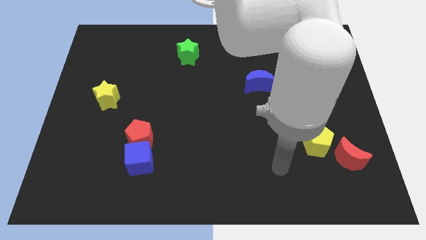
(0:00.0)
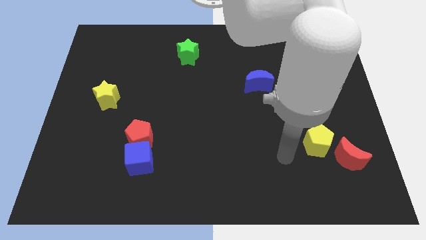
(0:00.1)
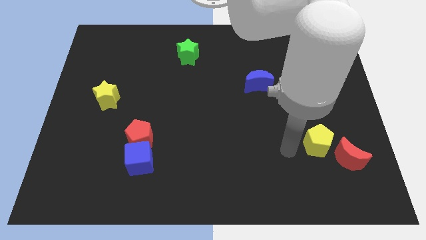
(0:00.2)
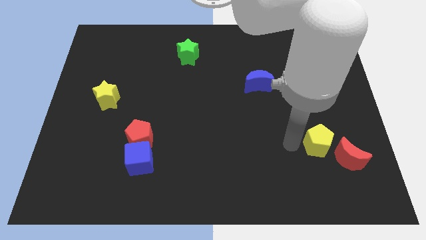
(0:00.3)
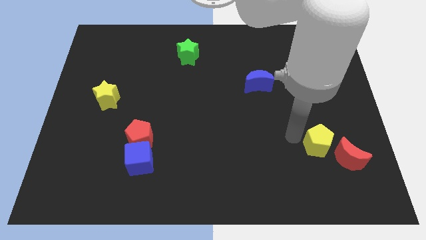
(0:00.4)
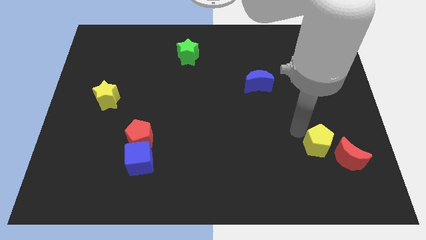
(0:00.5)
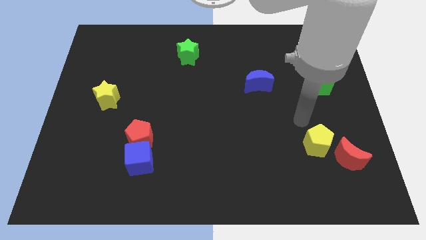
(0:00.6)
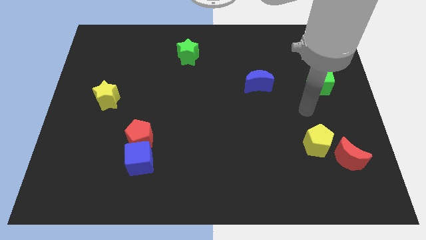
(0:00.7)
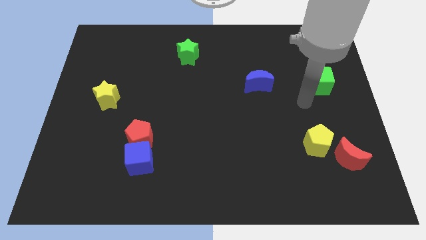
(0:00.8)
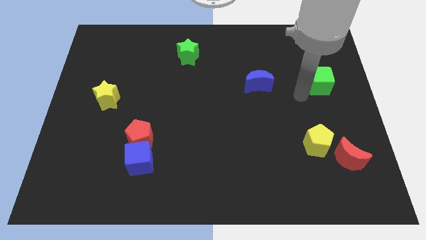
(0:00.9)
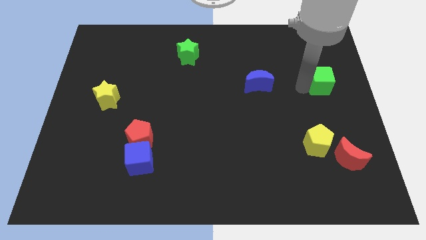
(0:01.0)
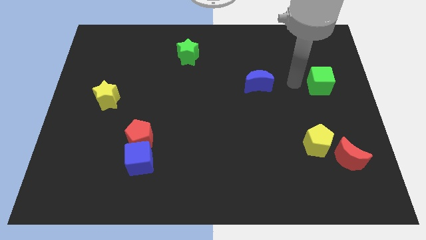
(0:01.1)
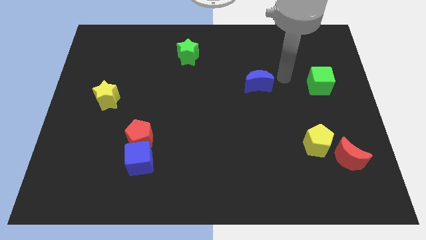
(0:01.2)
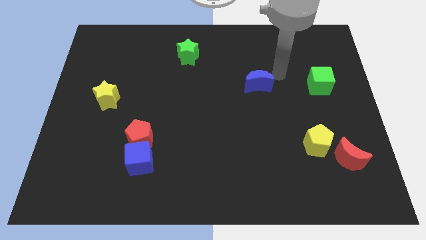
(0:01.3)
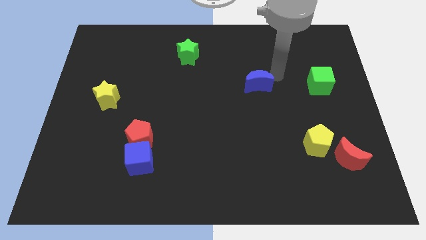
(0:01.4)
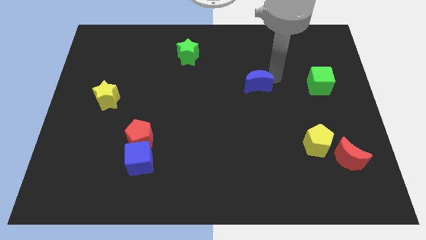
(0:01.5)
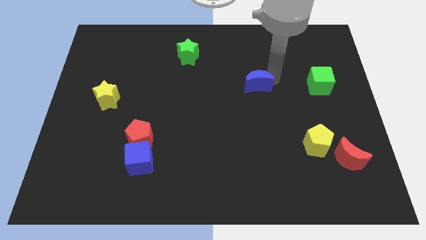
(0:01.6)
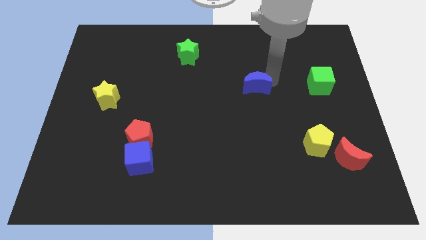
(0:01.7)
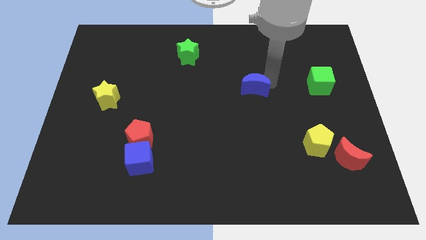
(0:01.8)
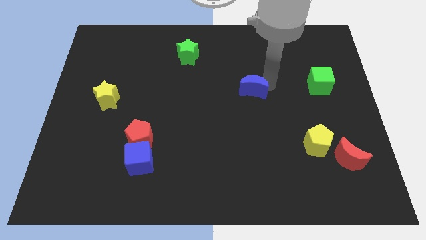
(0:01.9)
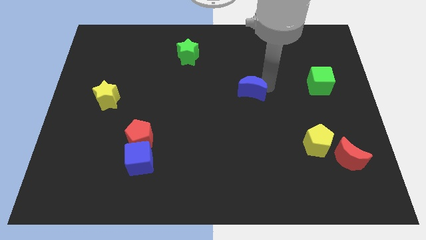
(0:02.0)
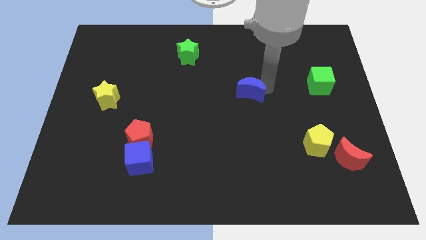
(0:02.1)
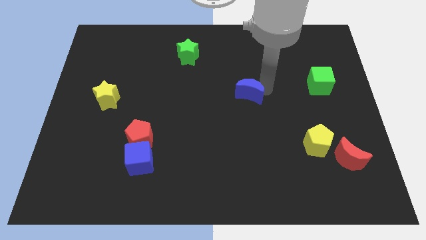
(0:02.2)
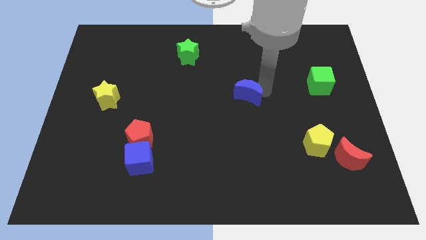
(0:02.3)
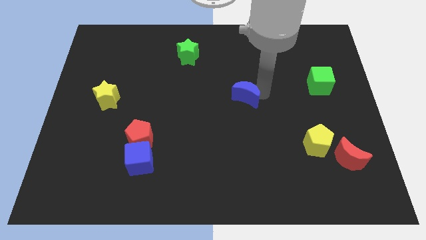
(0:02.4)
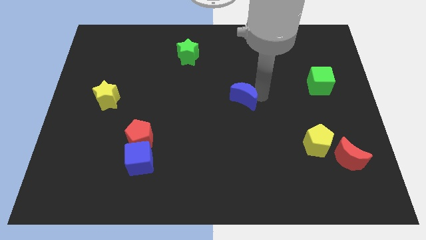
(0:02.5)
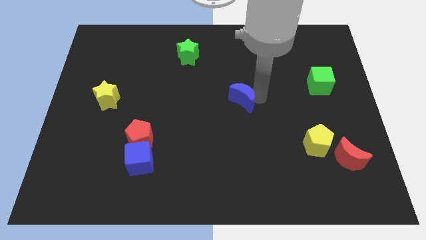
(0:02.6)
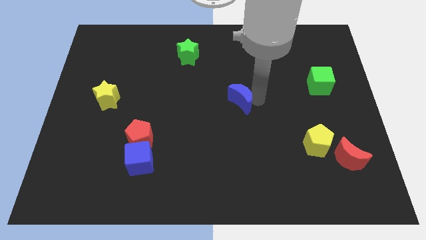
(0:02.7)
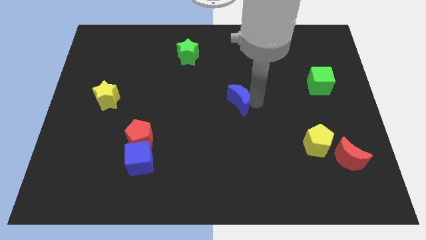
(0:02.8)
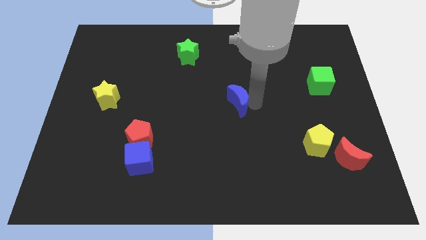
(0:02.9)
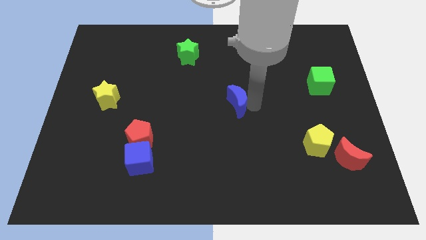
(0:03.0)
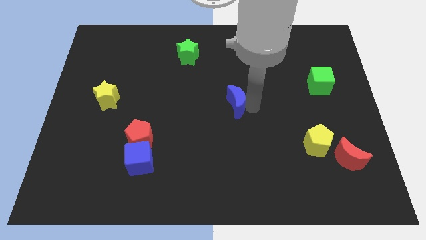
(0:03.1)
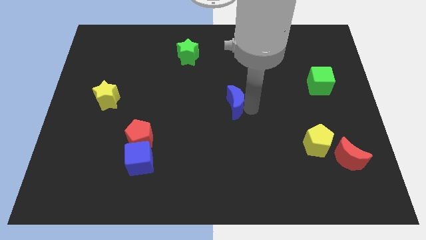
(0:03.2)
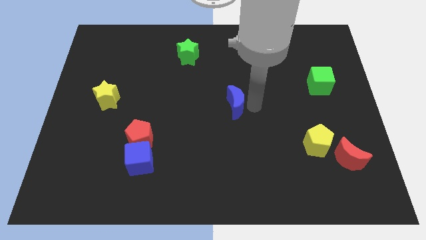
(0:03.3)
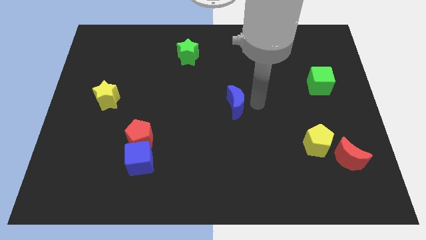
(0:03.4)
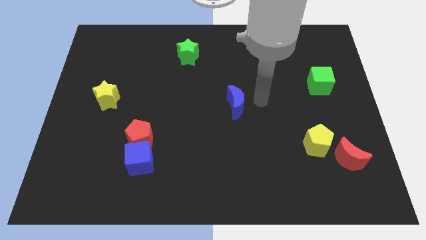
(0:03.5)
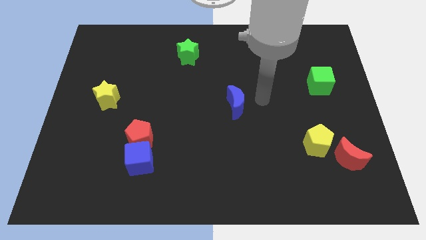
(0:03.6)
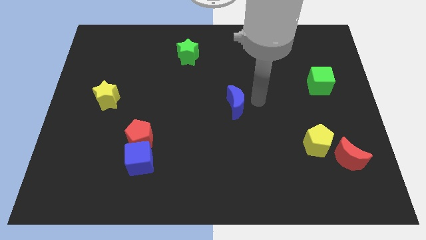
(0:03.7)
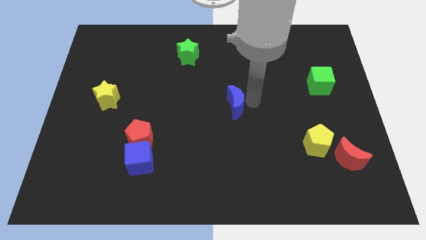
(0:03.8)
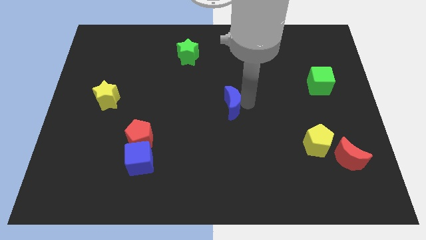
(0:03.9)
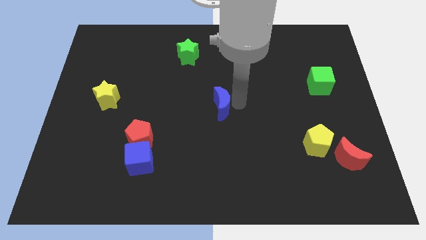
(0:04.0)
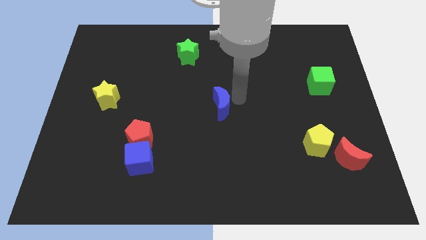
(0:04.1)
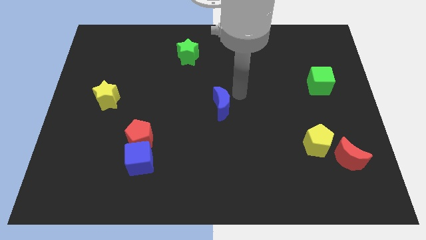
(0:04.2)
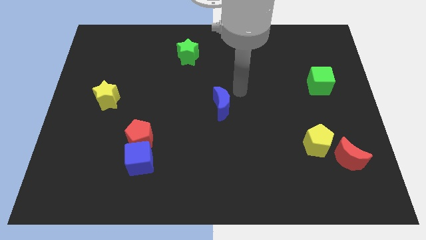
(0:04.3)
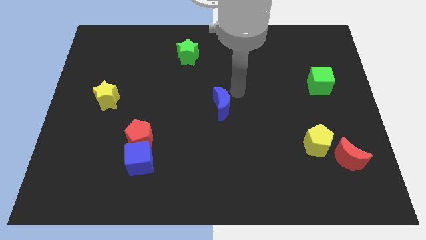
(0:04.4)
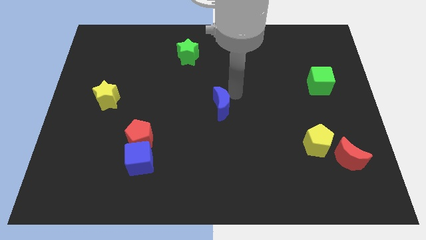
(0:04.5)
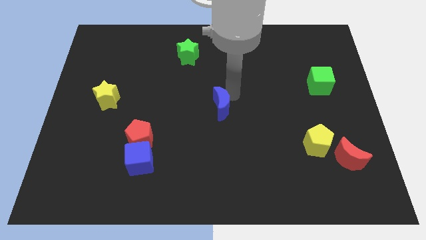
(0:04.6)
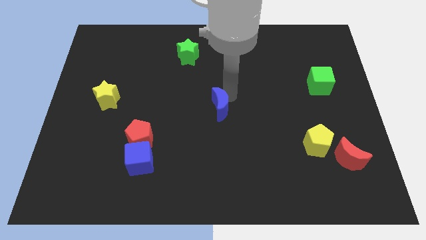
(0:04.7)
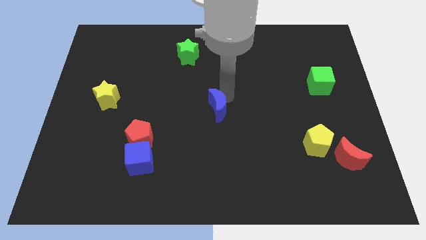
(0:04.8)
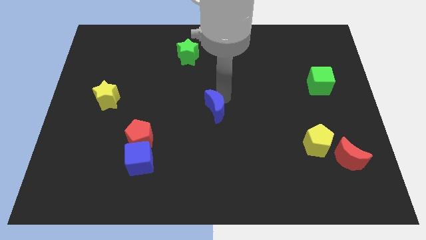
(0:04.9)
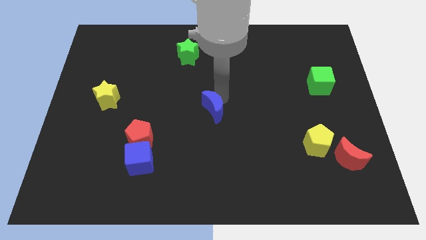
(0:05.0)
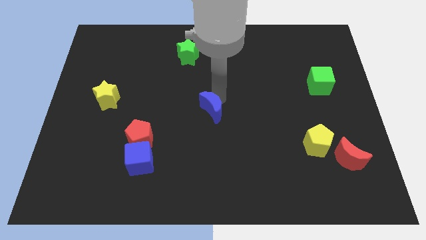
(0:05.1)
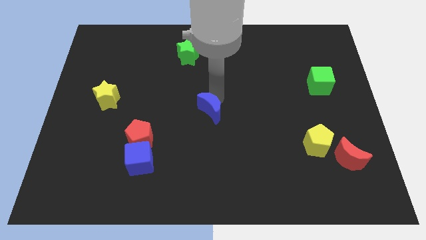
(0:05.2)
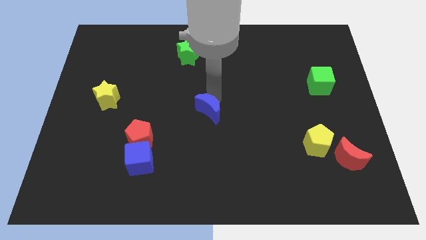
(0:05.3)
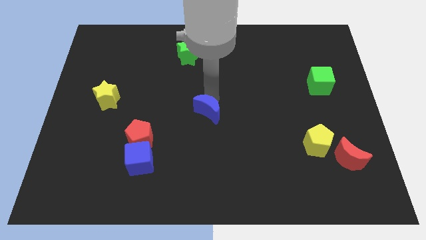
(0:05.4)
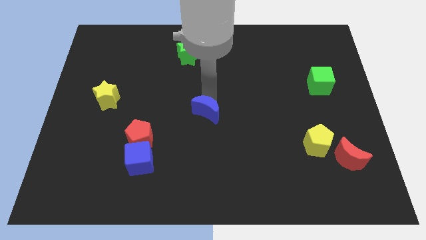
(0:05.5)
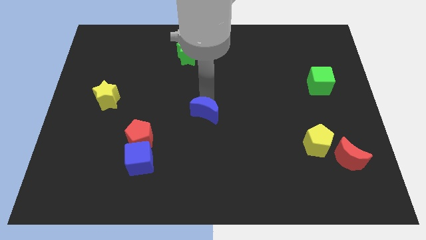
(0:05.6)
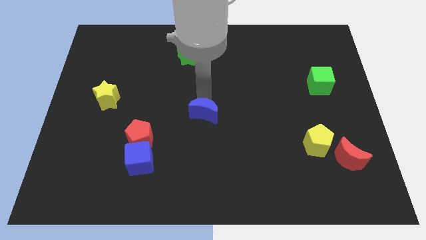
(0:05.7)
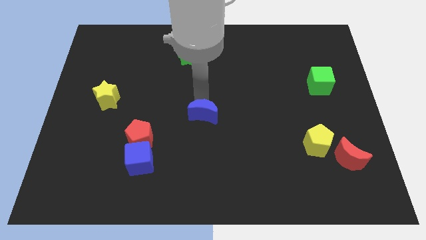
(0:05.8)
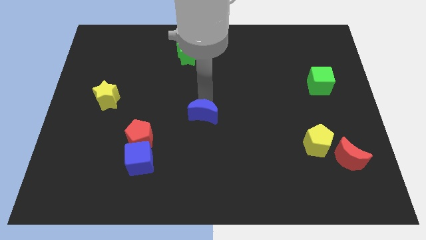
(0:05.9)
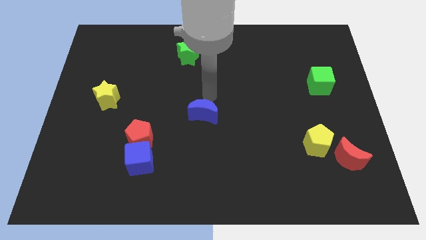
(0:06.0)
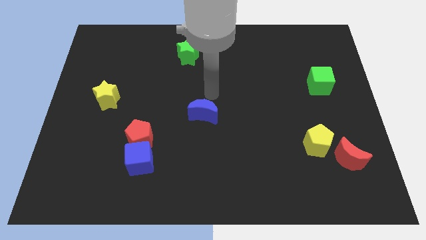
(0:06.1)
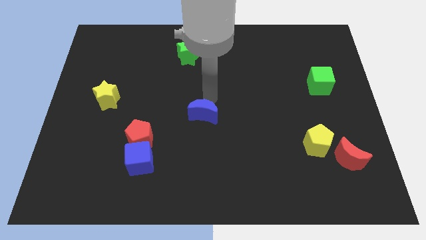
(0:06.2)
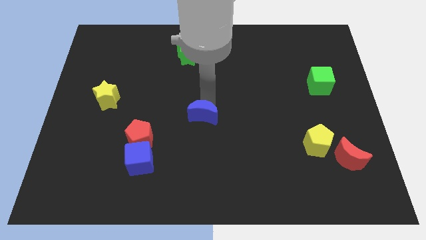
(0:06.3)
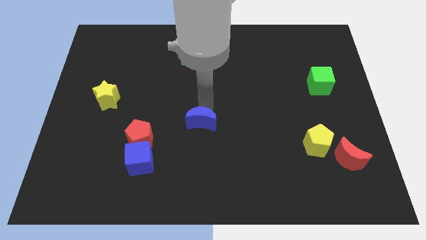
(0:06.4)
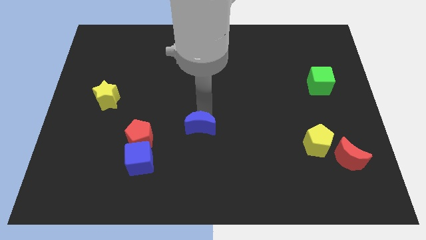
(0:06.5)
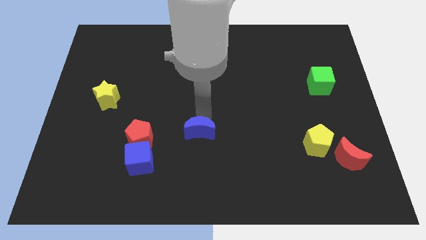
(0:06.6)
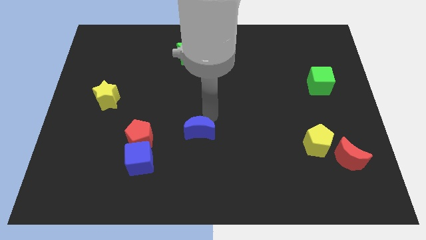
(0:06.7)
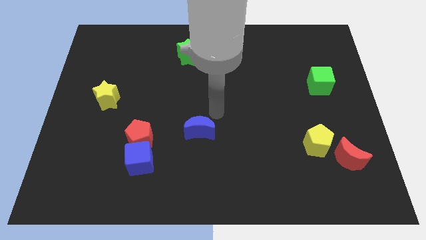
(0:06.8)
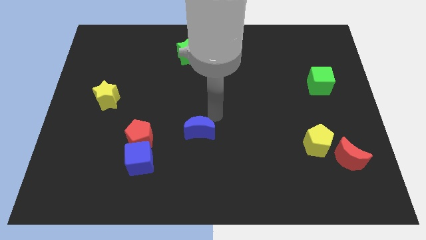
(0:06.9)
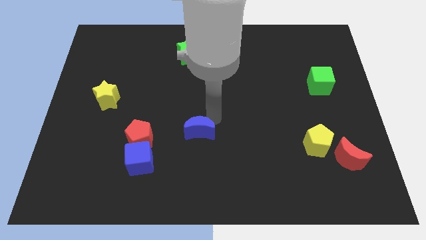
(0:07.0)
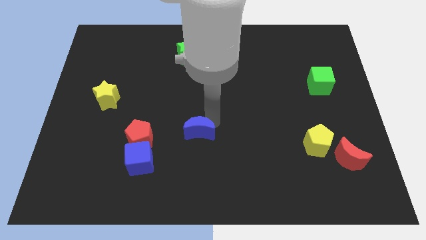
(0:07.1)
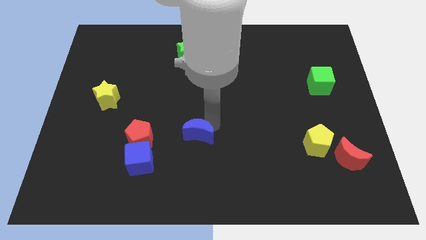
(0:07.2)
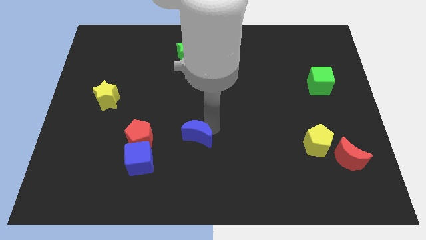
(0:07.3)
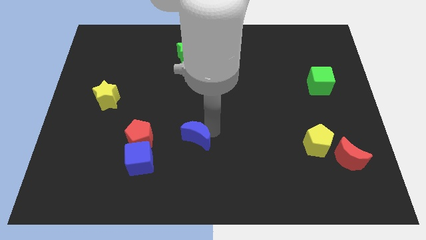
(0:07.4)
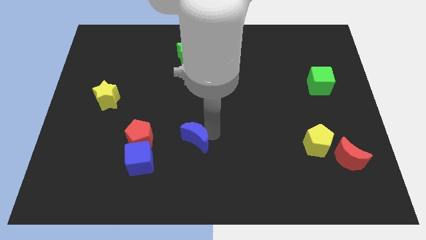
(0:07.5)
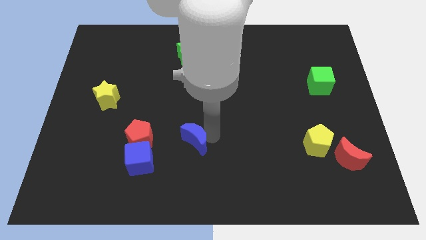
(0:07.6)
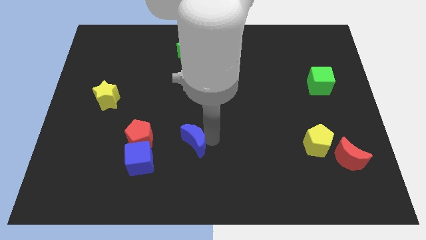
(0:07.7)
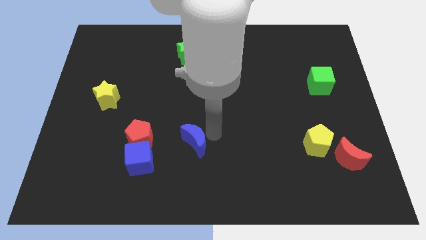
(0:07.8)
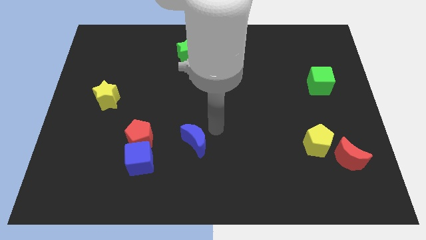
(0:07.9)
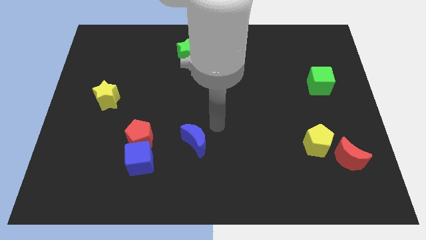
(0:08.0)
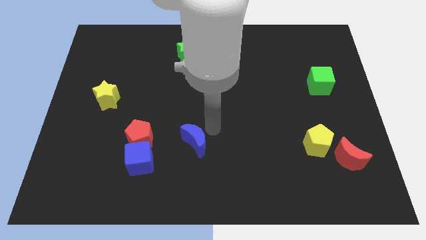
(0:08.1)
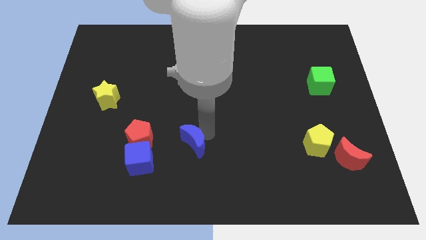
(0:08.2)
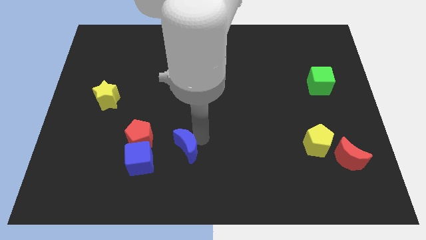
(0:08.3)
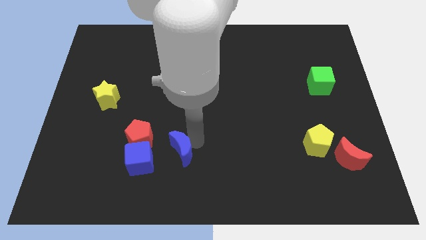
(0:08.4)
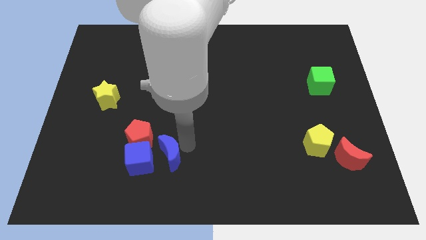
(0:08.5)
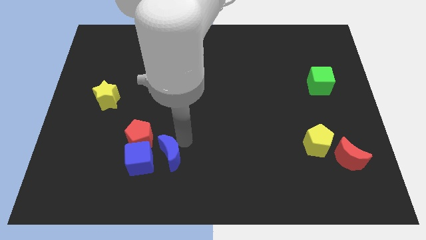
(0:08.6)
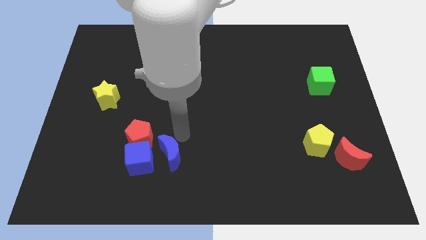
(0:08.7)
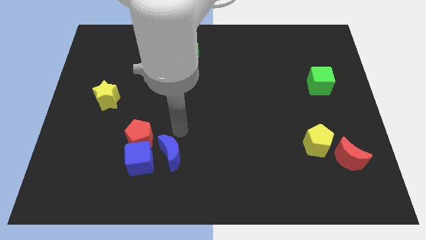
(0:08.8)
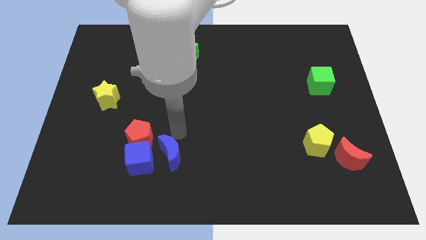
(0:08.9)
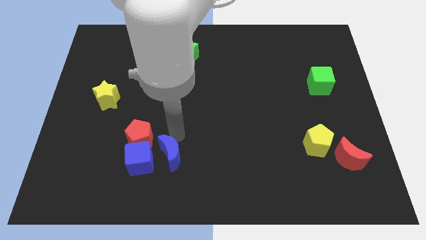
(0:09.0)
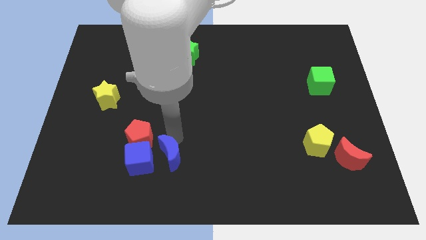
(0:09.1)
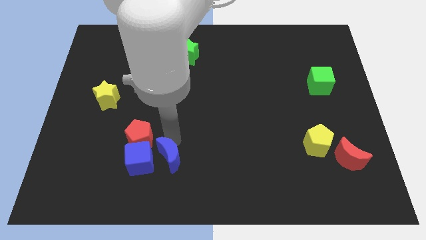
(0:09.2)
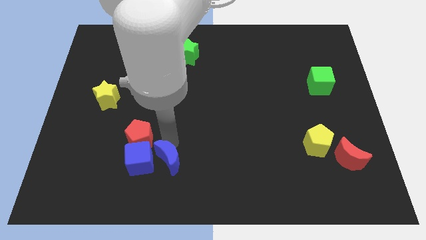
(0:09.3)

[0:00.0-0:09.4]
put the blue moon diagonally down and to the right of the blue cube
